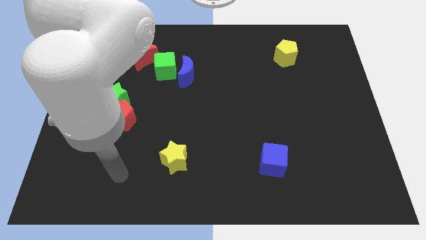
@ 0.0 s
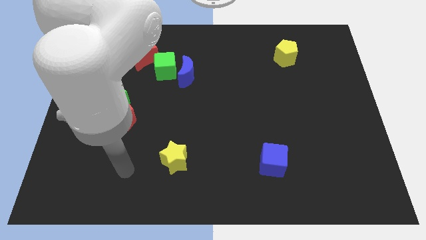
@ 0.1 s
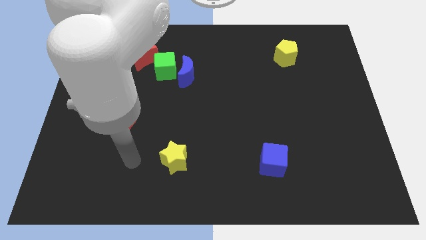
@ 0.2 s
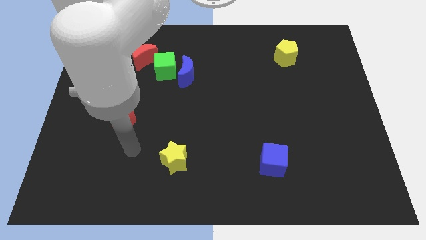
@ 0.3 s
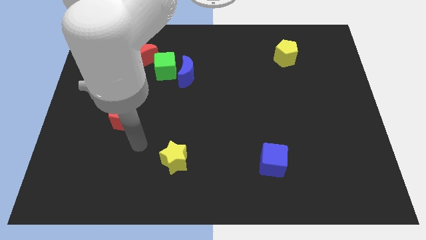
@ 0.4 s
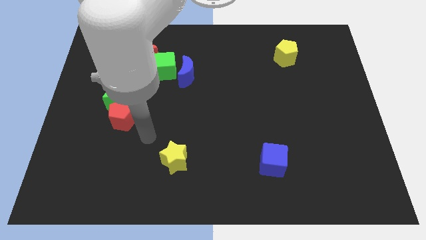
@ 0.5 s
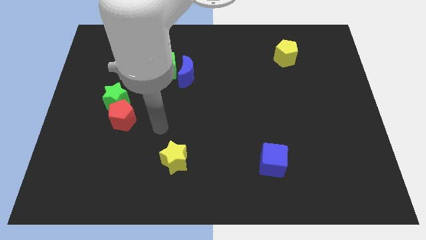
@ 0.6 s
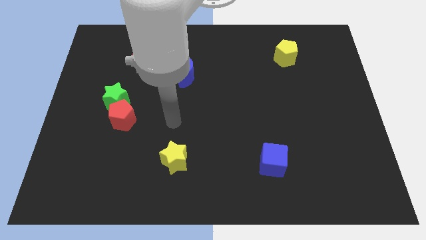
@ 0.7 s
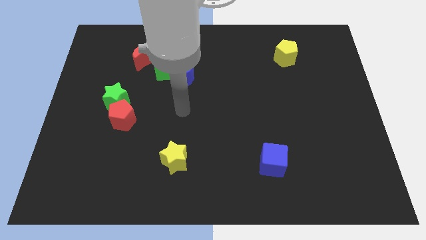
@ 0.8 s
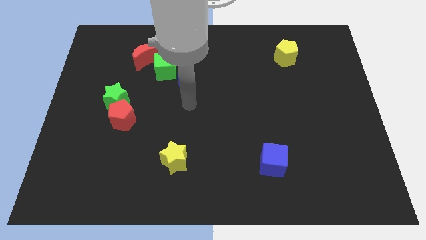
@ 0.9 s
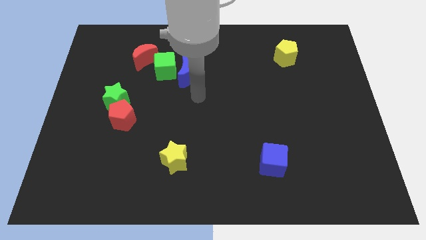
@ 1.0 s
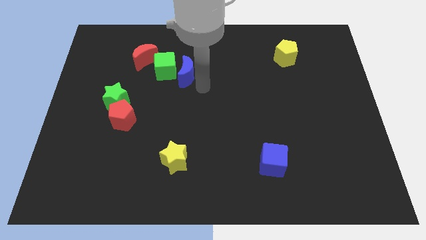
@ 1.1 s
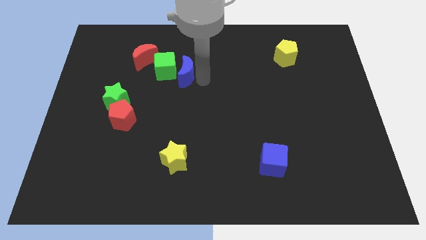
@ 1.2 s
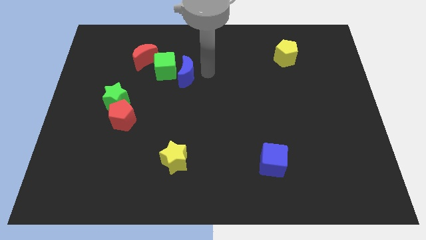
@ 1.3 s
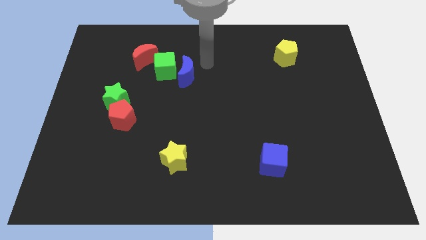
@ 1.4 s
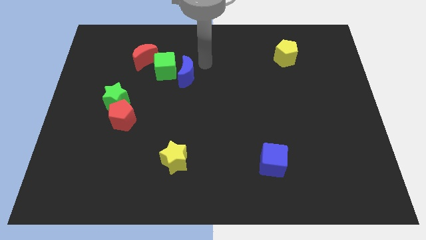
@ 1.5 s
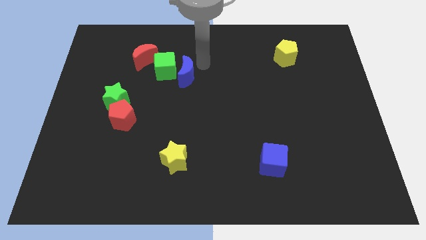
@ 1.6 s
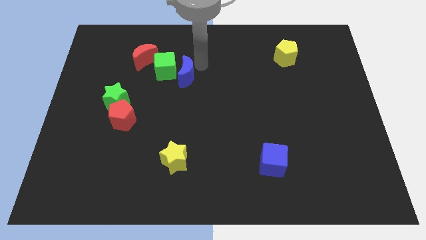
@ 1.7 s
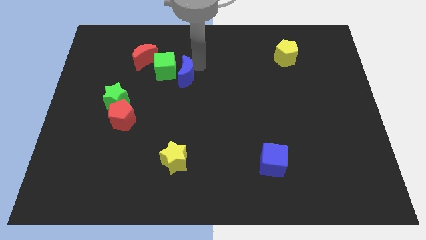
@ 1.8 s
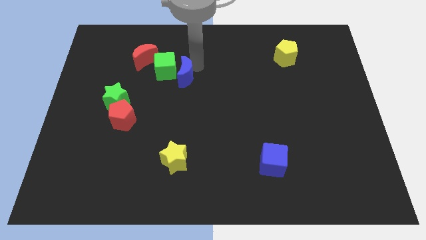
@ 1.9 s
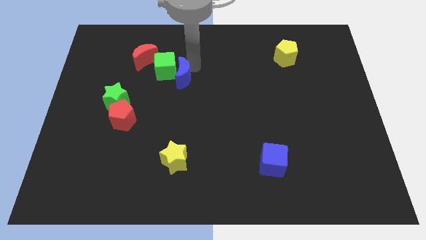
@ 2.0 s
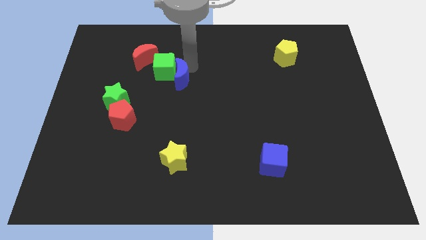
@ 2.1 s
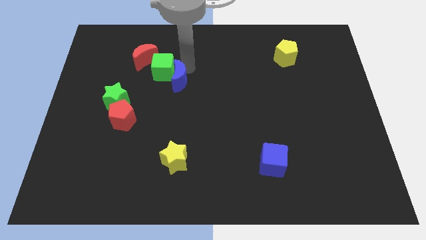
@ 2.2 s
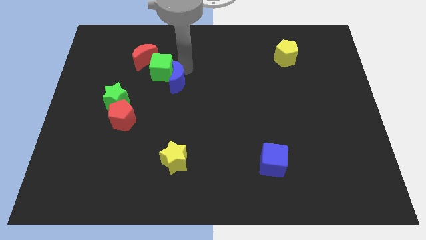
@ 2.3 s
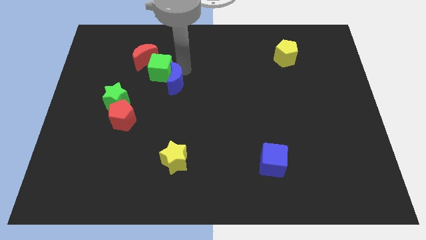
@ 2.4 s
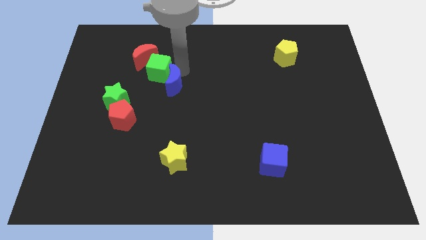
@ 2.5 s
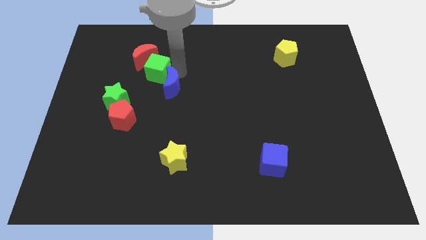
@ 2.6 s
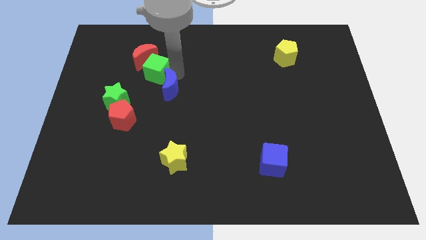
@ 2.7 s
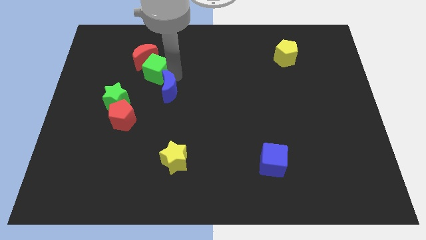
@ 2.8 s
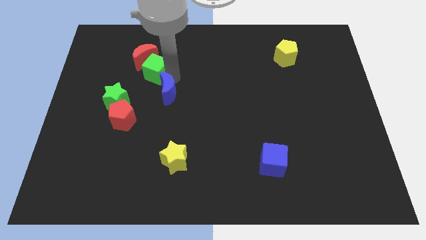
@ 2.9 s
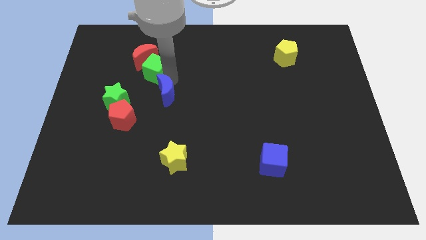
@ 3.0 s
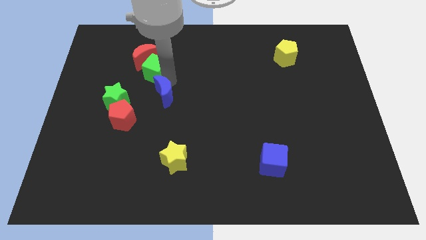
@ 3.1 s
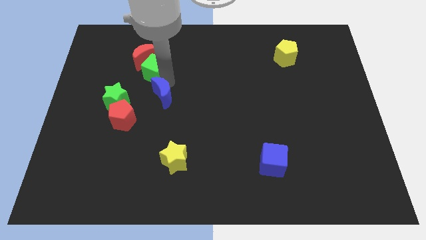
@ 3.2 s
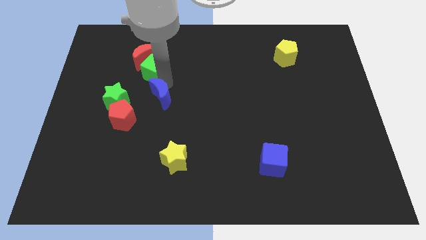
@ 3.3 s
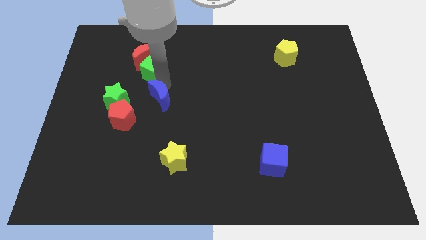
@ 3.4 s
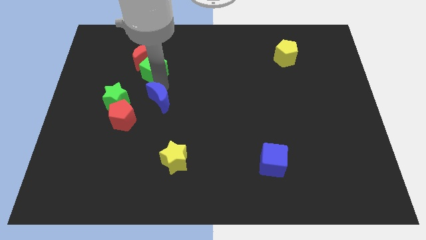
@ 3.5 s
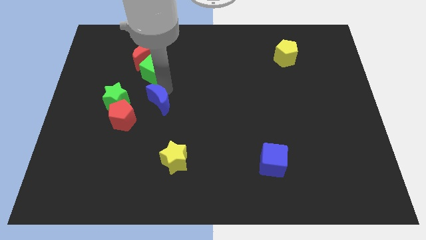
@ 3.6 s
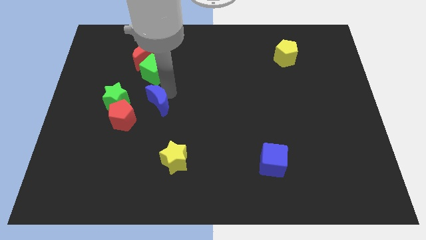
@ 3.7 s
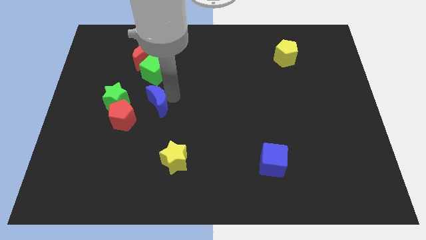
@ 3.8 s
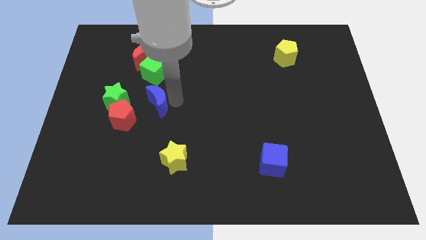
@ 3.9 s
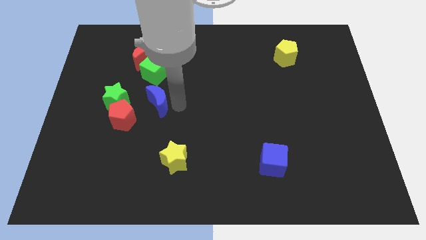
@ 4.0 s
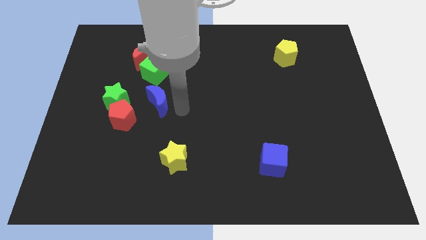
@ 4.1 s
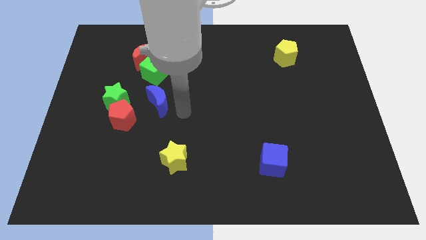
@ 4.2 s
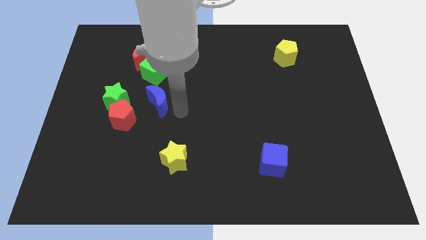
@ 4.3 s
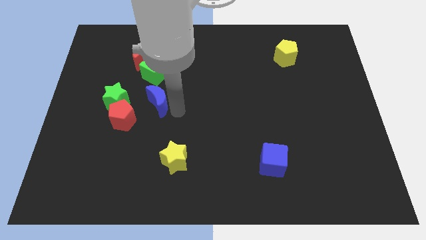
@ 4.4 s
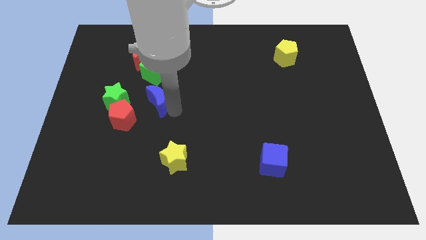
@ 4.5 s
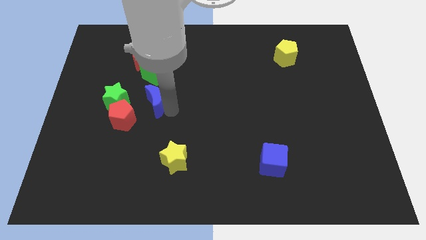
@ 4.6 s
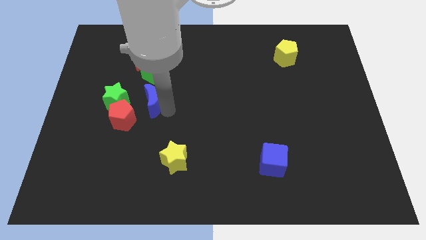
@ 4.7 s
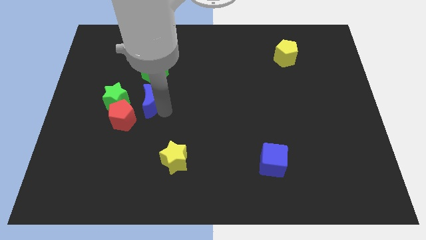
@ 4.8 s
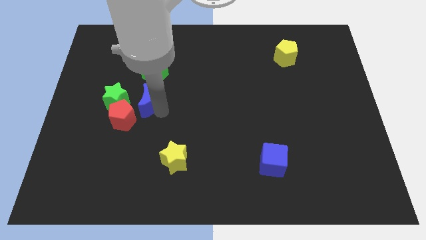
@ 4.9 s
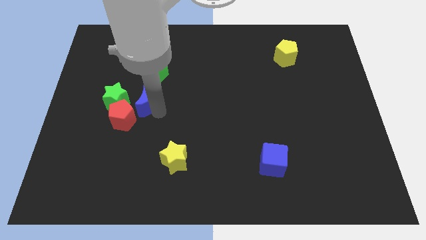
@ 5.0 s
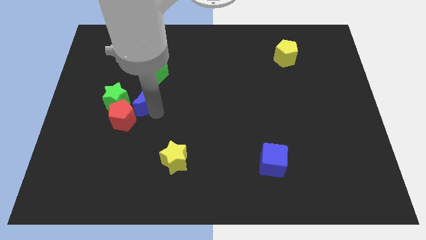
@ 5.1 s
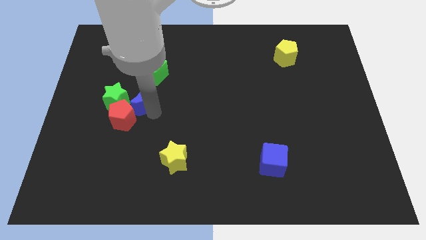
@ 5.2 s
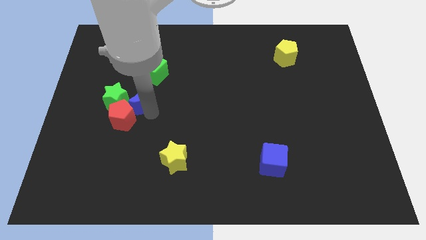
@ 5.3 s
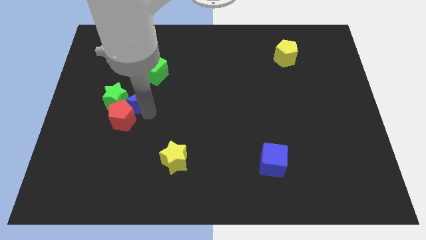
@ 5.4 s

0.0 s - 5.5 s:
slightly slide the blue moon to the left

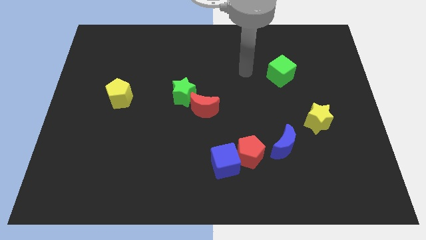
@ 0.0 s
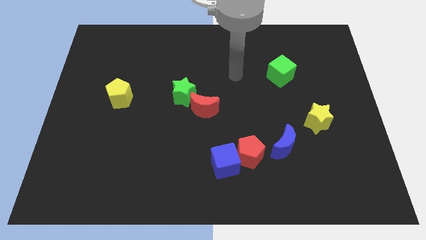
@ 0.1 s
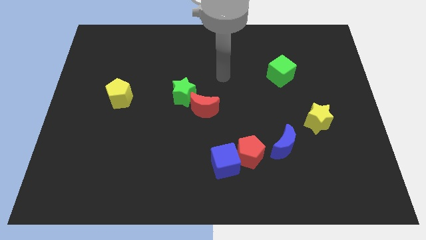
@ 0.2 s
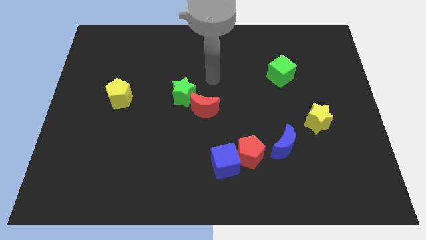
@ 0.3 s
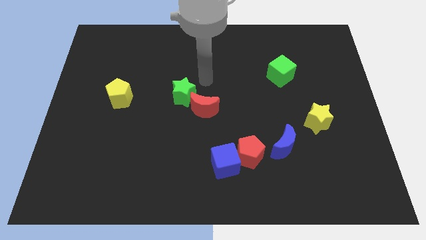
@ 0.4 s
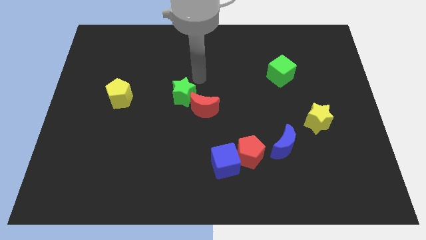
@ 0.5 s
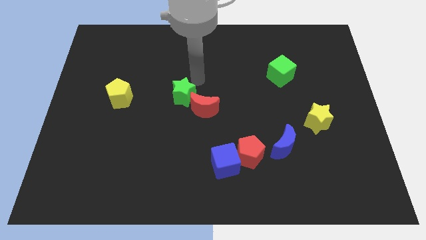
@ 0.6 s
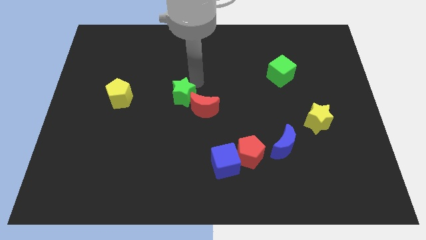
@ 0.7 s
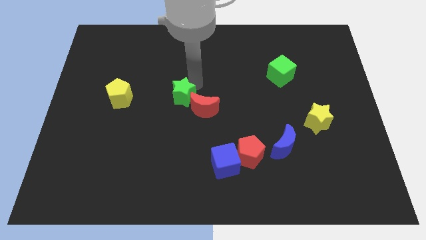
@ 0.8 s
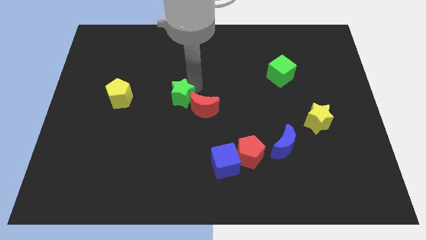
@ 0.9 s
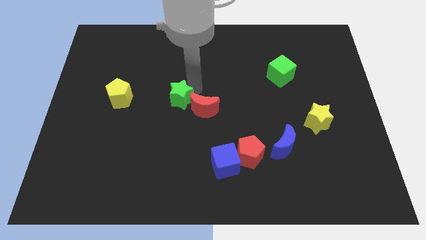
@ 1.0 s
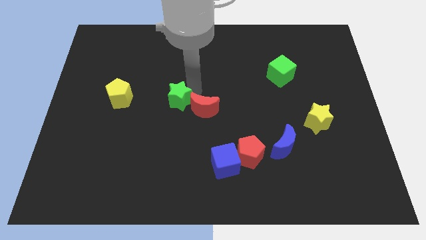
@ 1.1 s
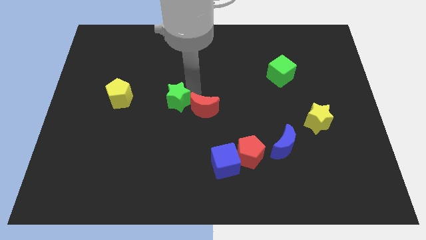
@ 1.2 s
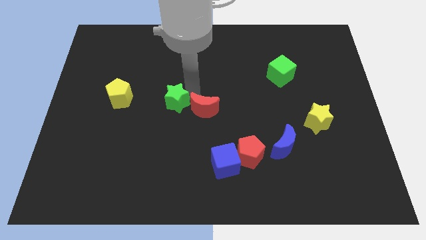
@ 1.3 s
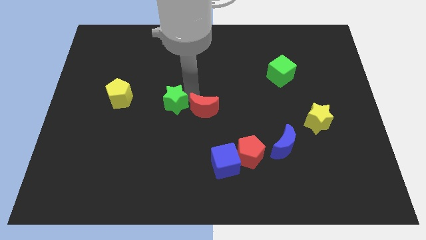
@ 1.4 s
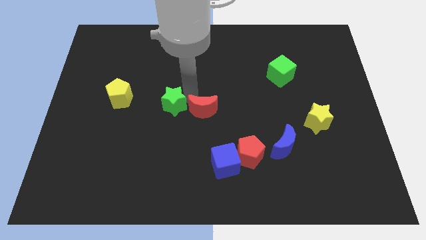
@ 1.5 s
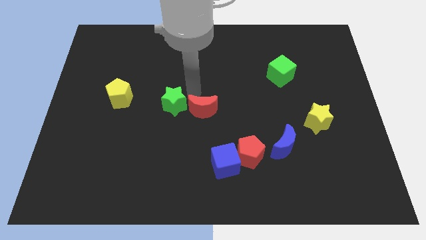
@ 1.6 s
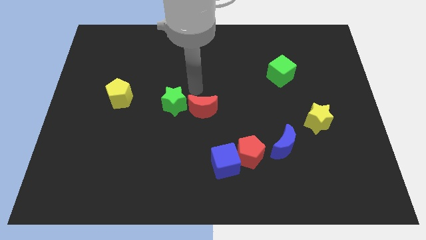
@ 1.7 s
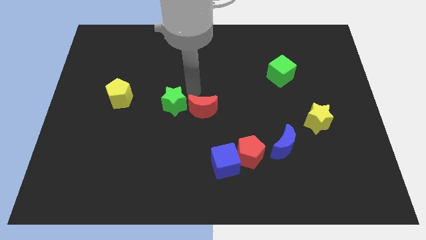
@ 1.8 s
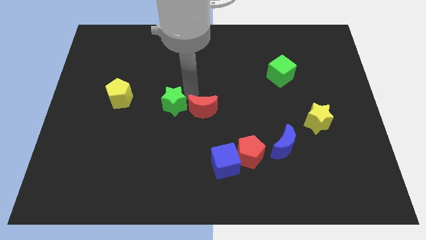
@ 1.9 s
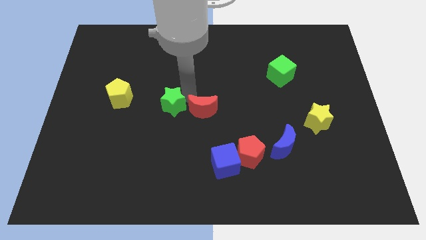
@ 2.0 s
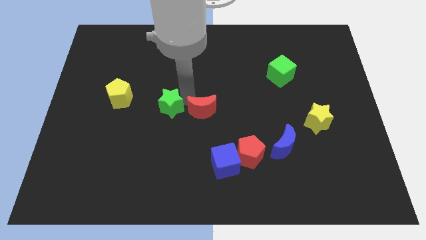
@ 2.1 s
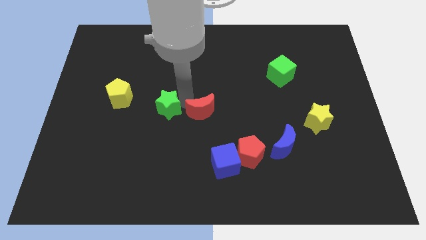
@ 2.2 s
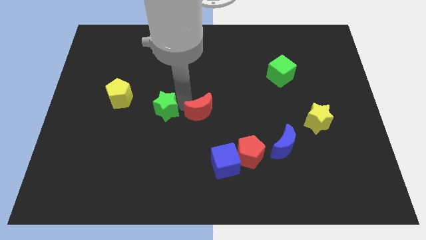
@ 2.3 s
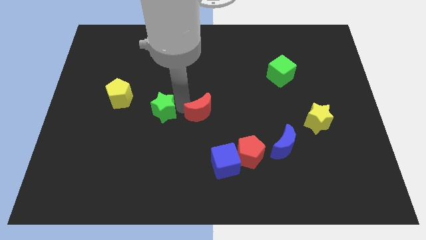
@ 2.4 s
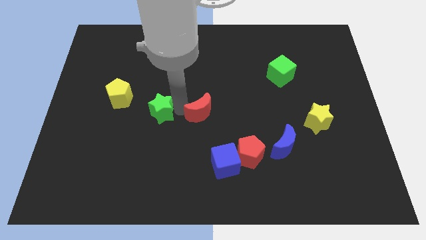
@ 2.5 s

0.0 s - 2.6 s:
slightly push the green star diagonally down and to the left
